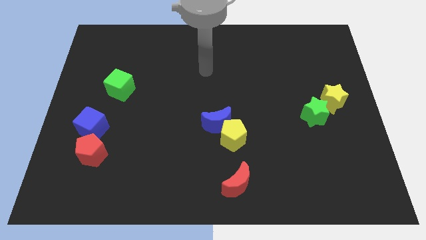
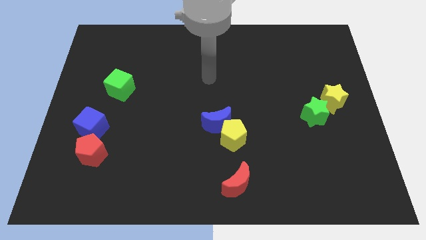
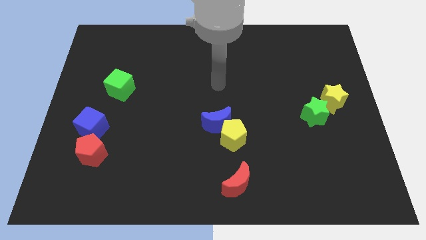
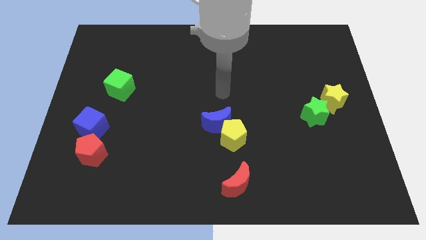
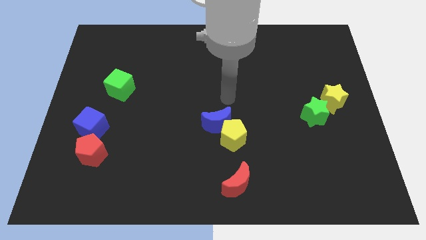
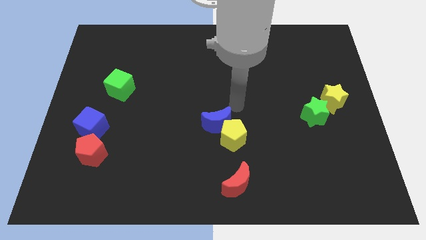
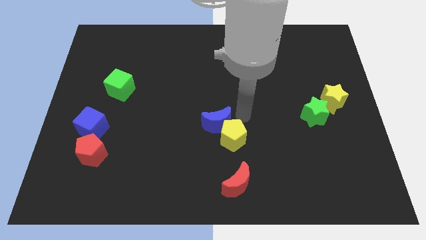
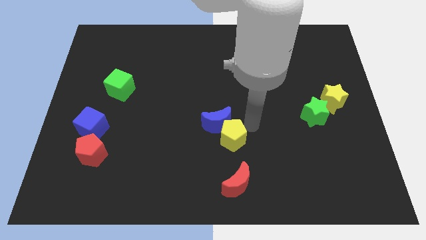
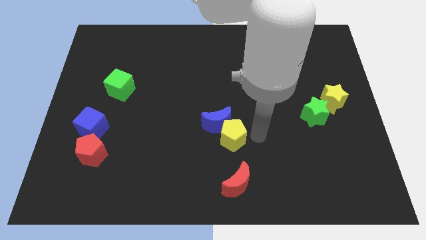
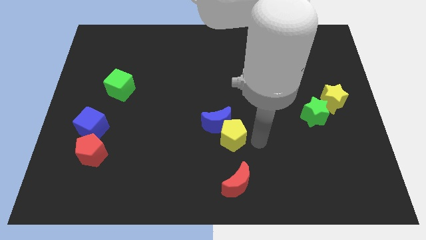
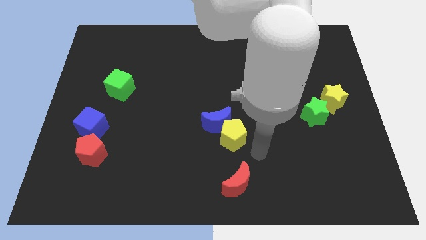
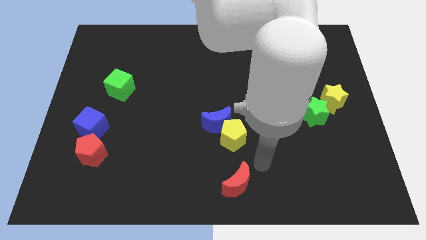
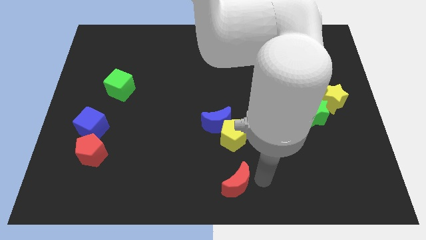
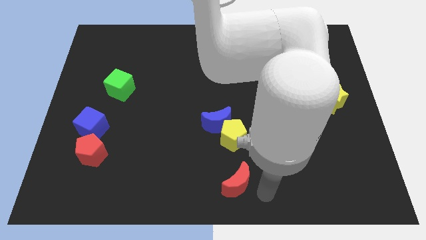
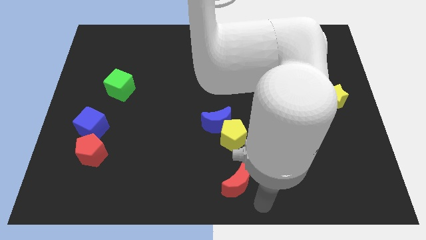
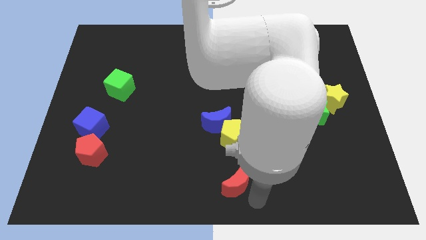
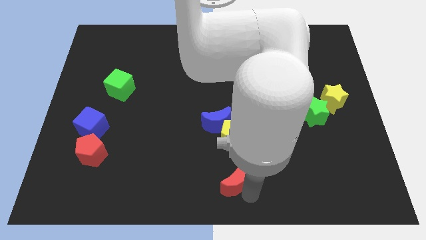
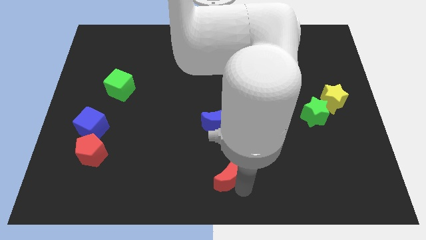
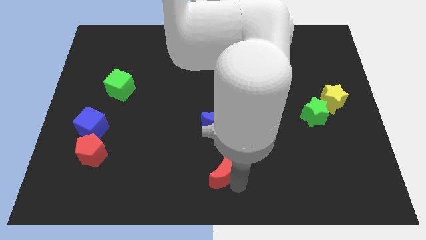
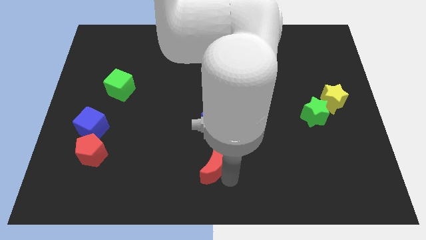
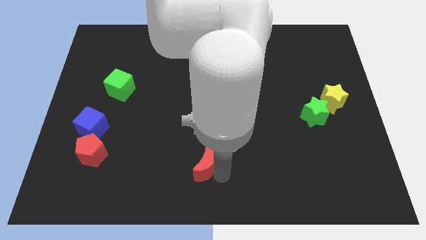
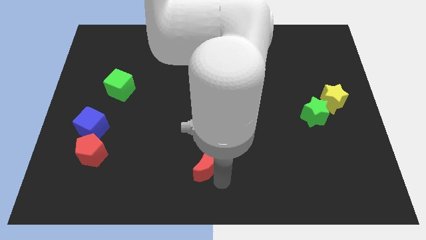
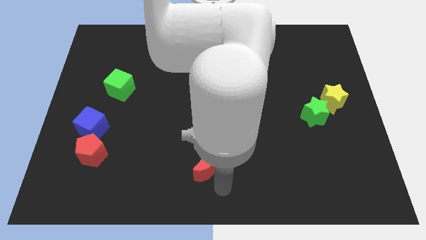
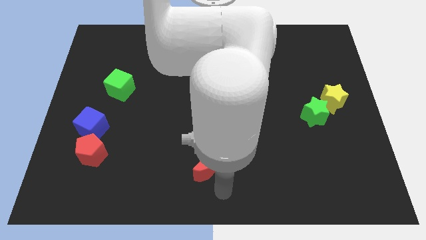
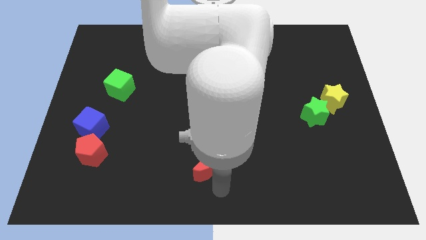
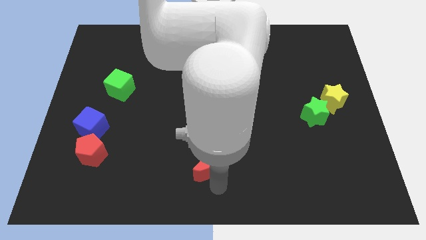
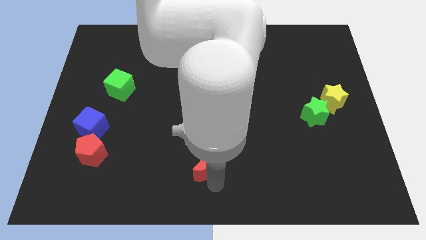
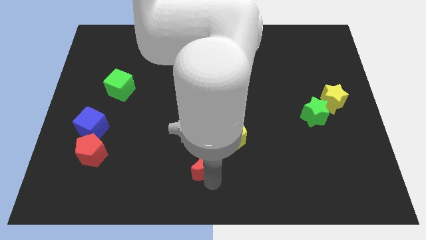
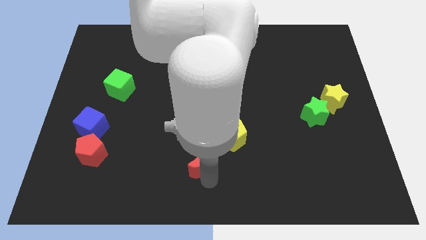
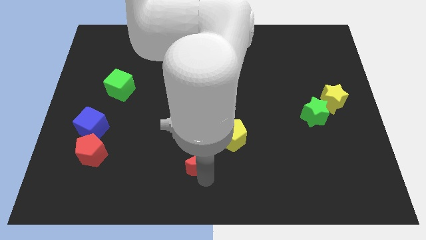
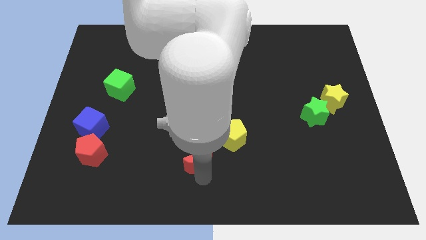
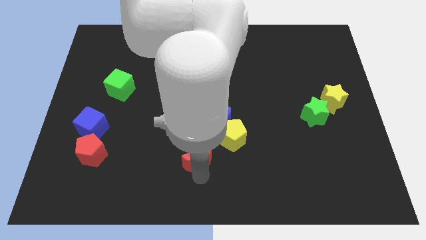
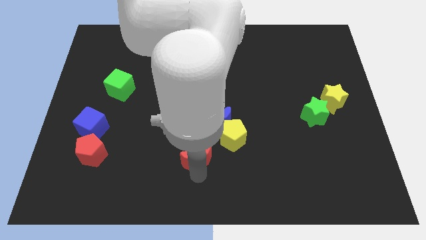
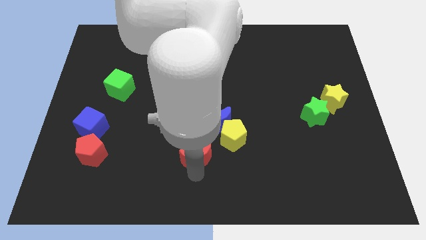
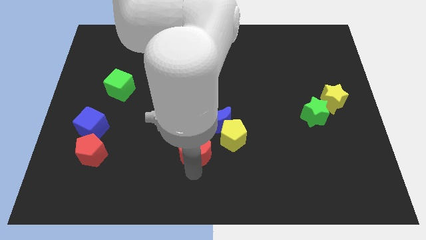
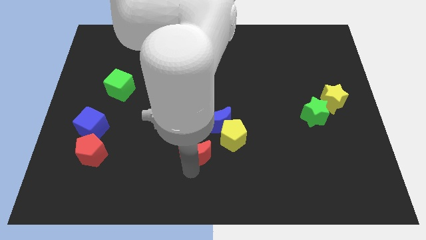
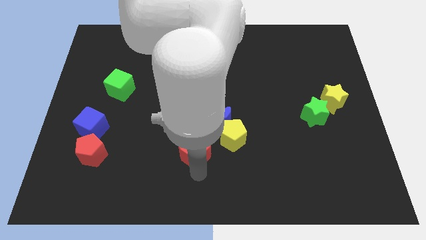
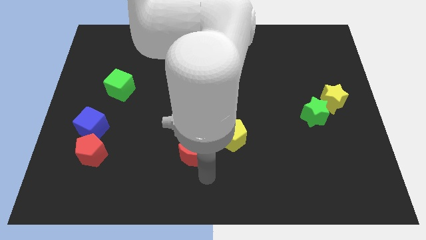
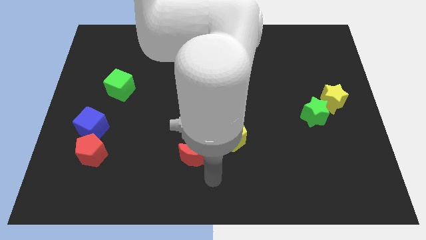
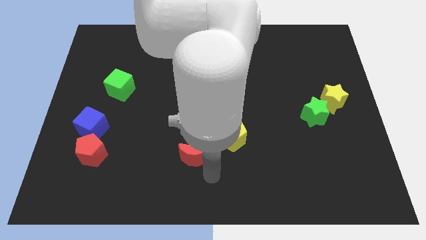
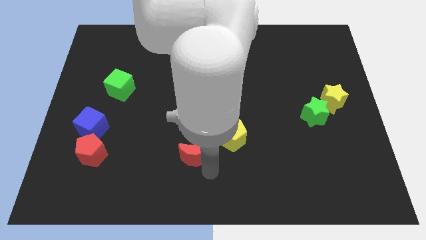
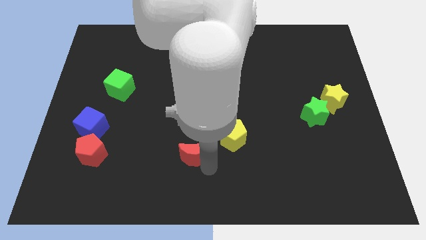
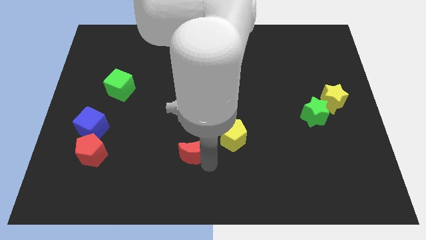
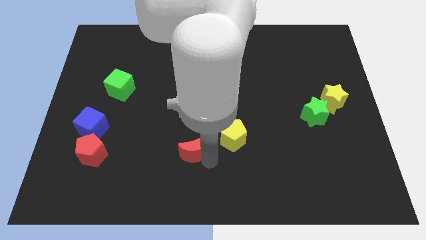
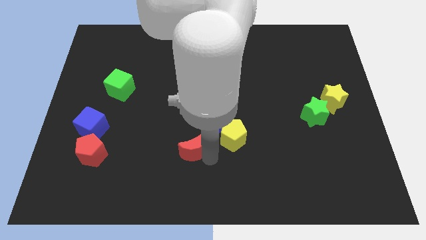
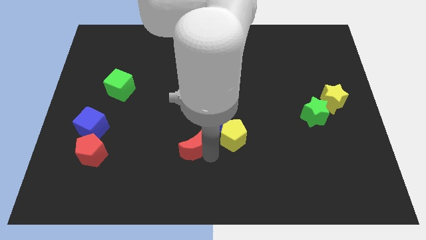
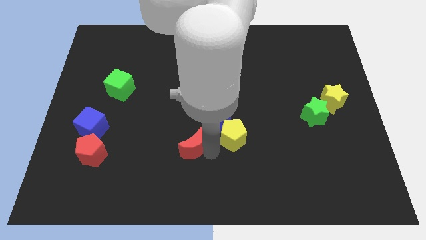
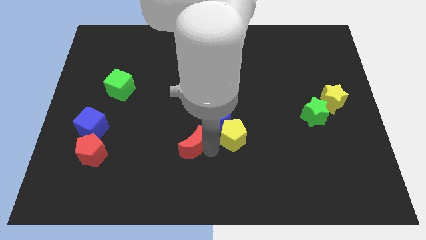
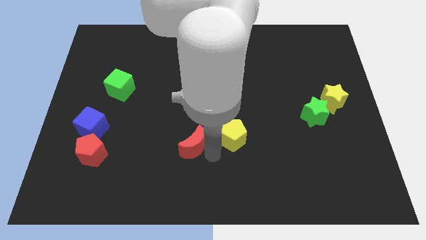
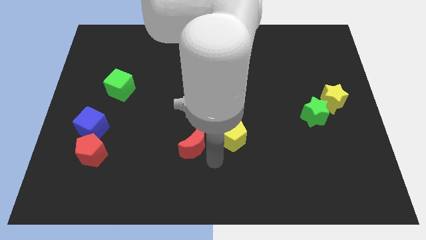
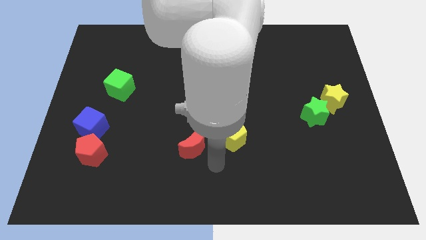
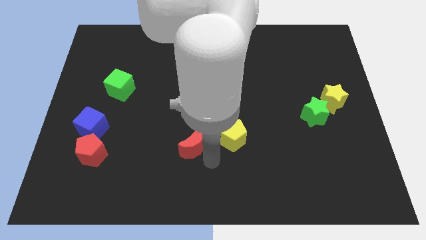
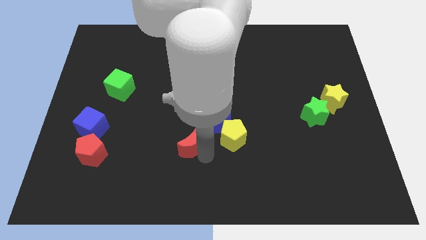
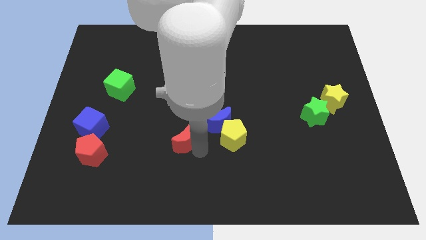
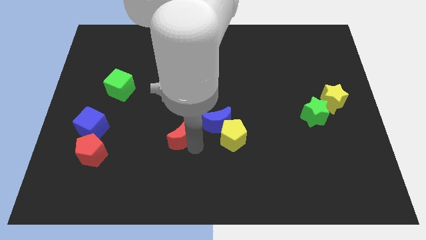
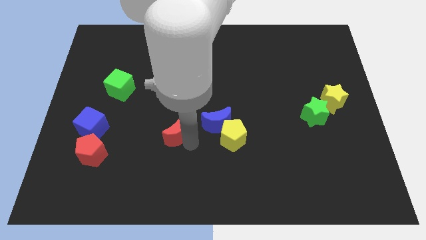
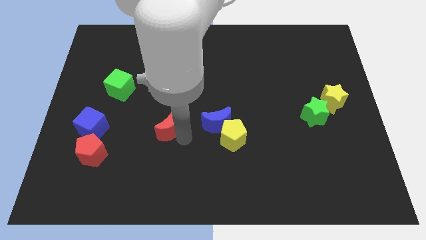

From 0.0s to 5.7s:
slide the red moon diagonally up and left

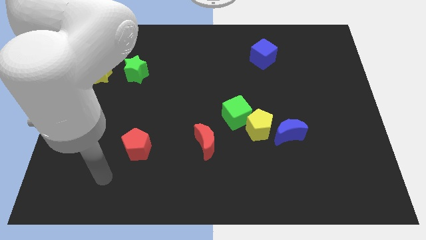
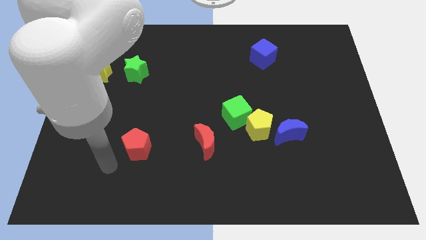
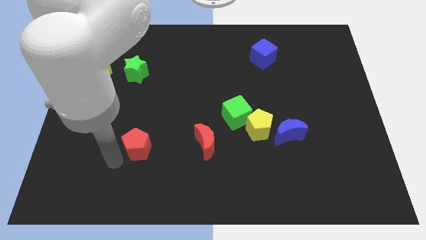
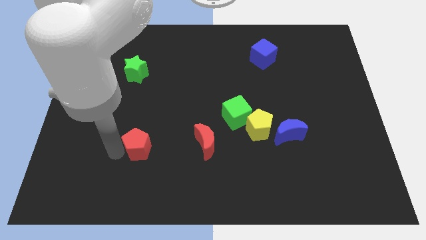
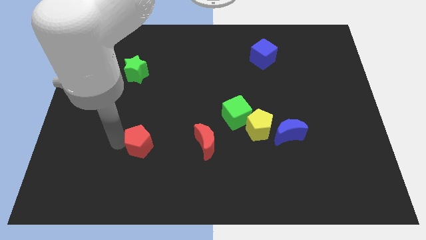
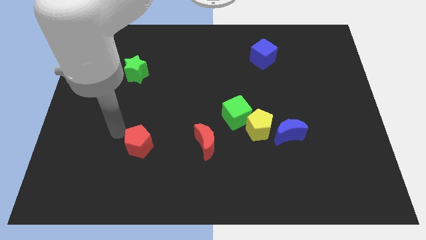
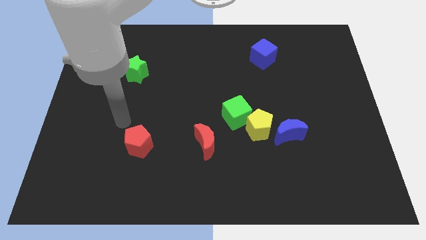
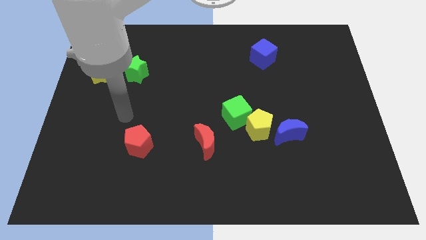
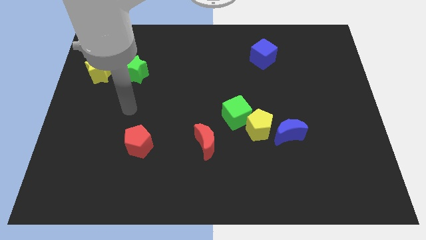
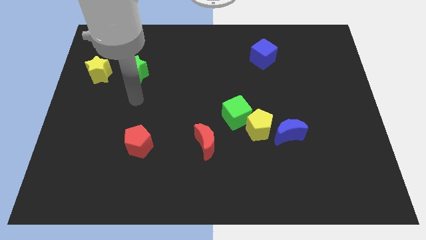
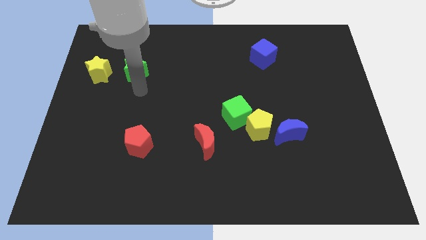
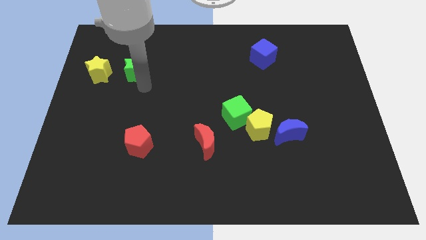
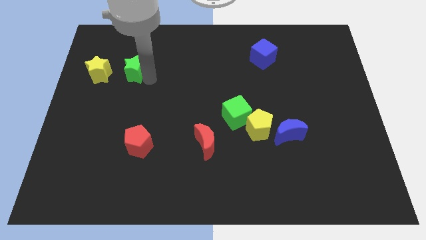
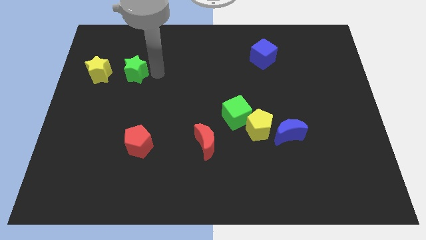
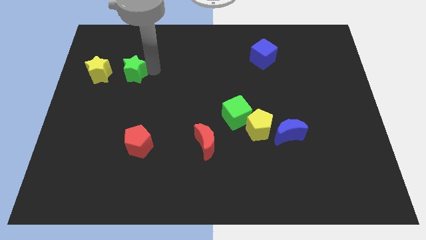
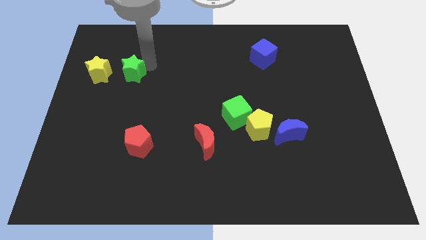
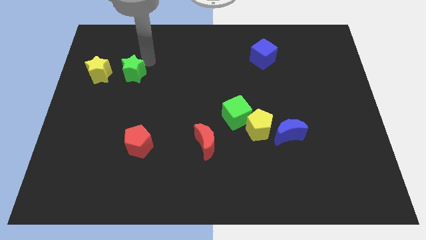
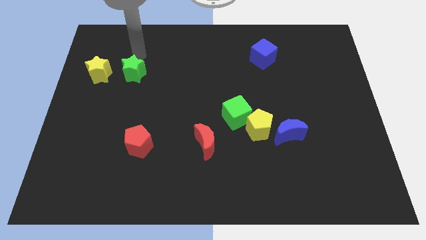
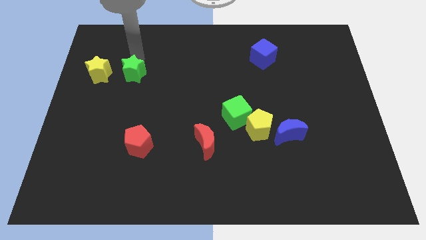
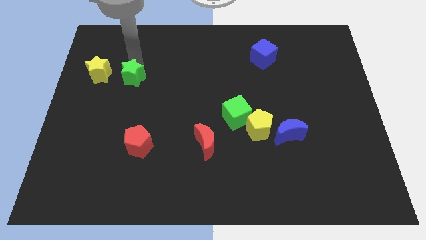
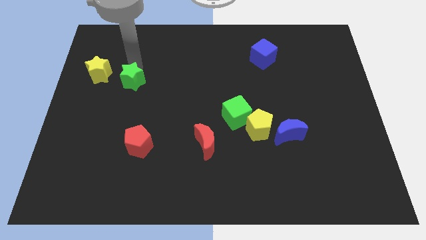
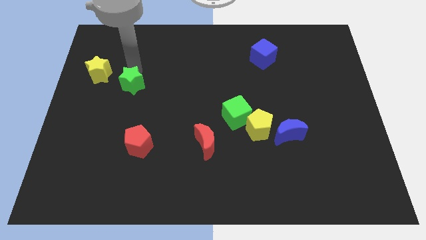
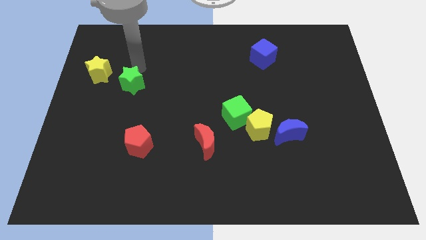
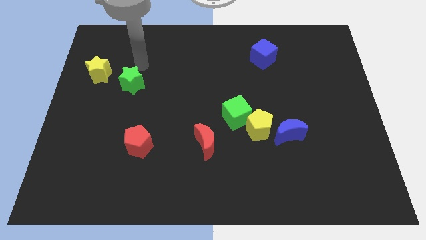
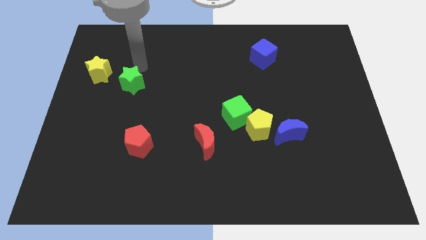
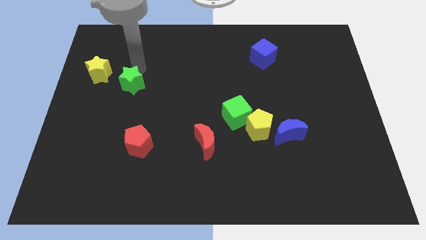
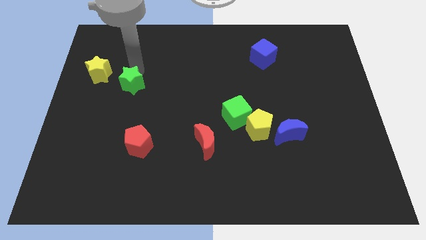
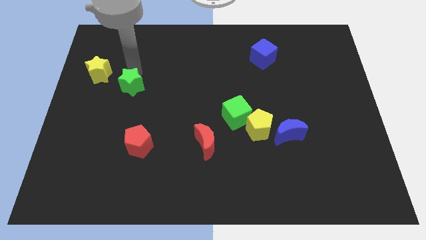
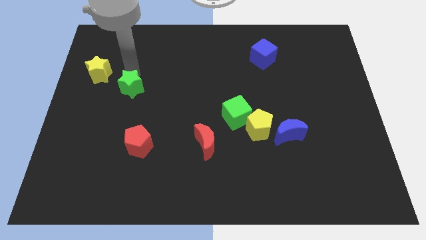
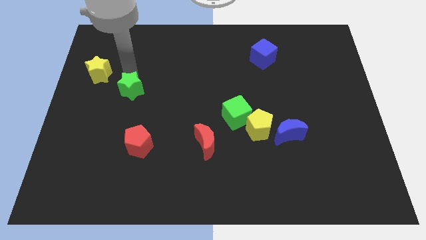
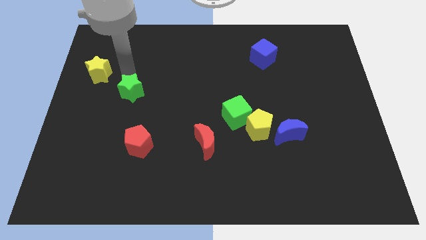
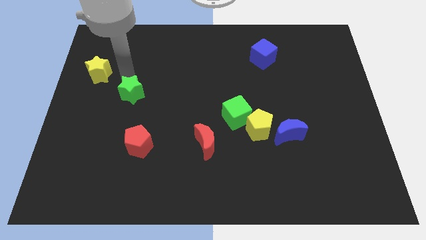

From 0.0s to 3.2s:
slide the green star down a little
